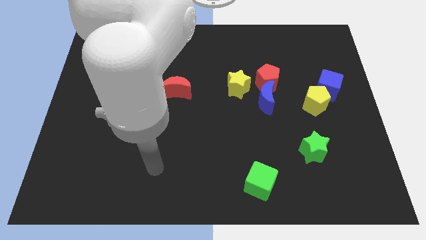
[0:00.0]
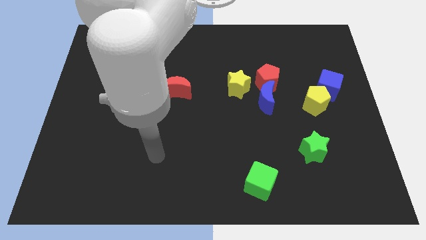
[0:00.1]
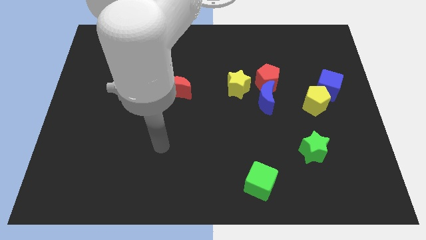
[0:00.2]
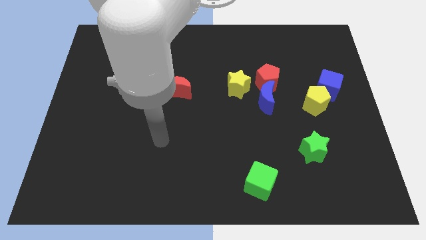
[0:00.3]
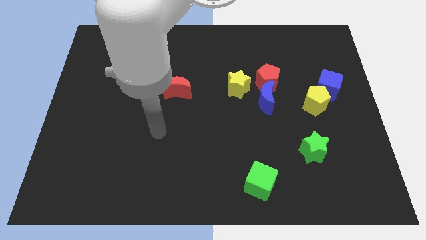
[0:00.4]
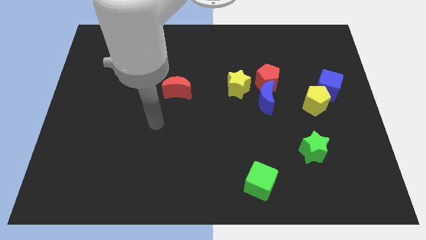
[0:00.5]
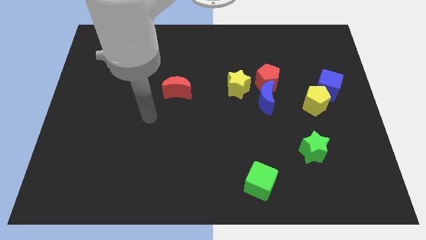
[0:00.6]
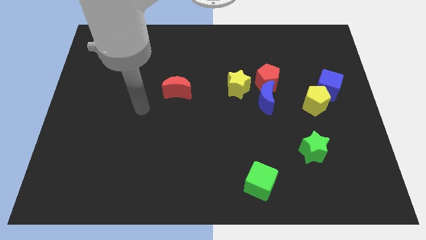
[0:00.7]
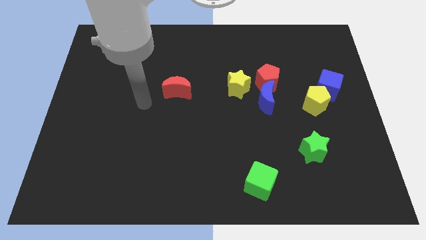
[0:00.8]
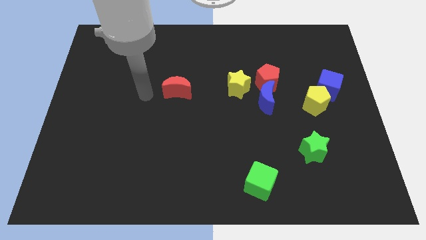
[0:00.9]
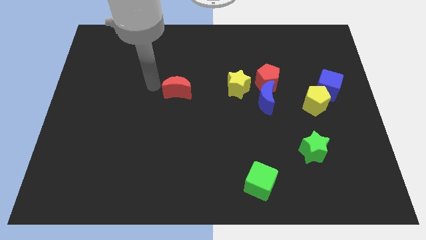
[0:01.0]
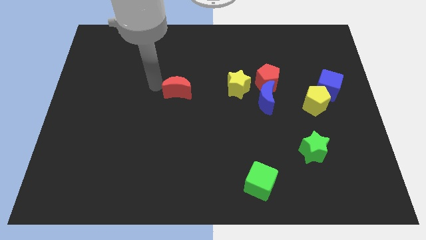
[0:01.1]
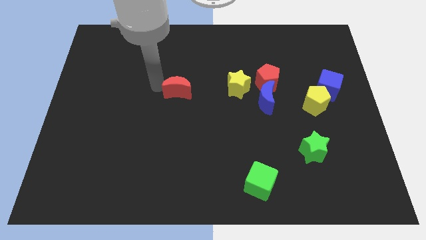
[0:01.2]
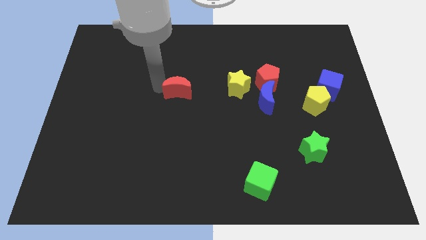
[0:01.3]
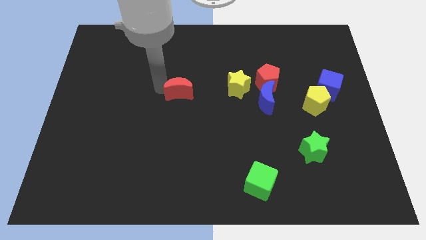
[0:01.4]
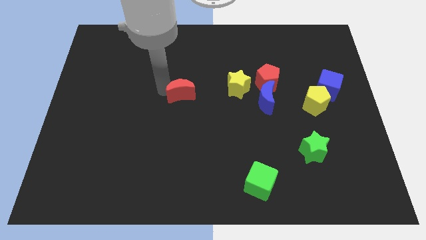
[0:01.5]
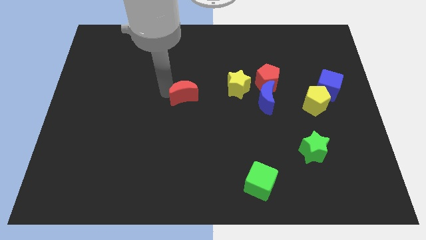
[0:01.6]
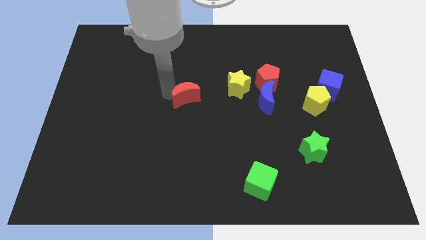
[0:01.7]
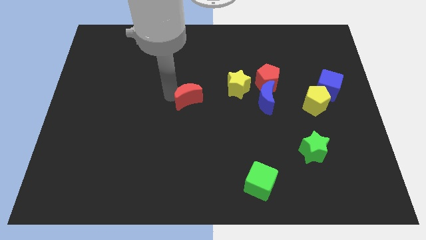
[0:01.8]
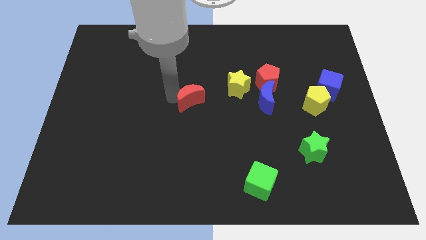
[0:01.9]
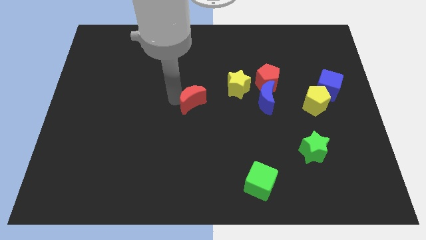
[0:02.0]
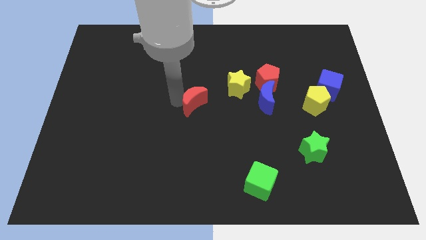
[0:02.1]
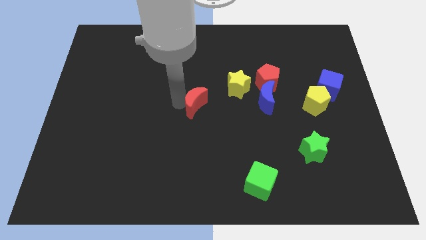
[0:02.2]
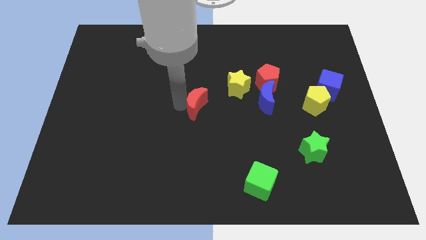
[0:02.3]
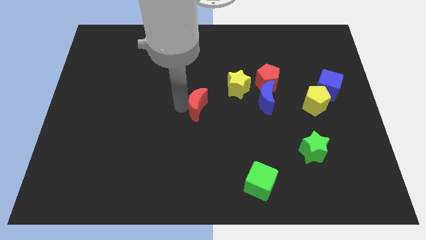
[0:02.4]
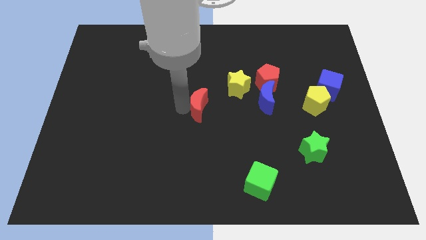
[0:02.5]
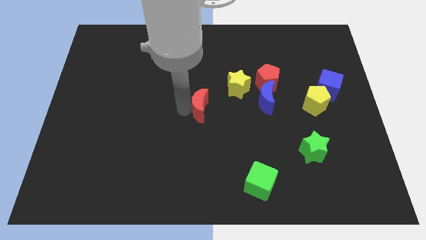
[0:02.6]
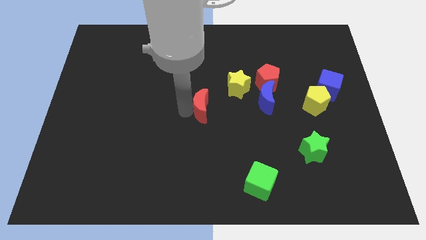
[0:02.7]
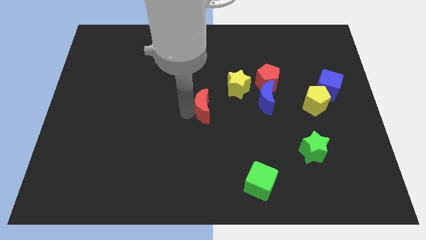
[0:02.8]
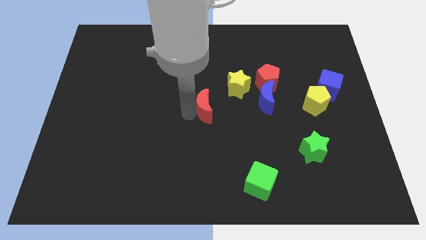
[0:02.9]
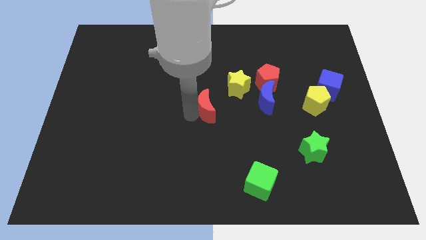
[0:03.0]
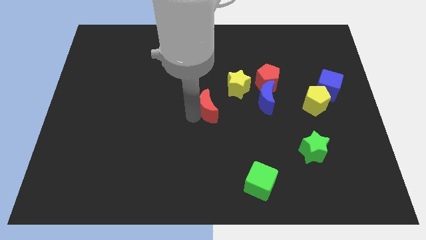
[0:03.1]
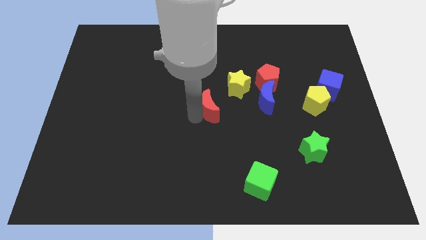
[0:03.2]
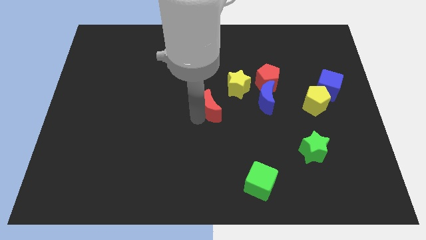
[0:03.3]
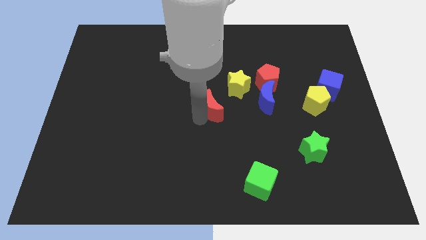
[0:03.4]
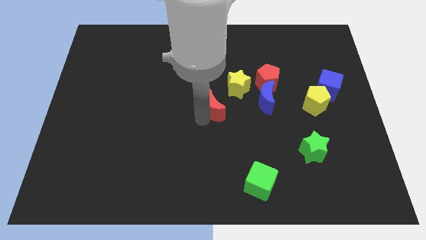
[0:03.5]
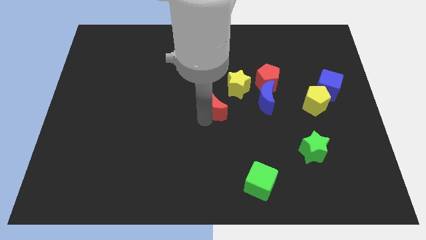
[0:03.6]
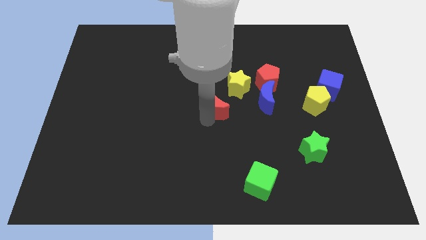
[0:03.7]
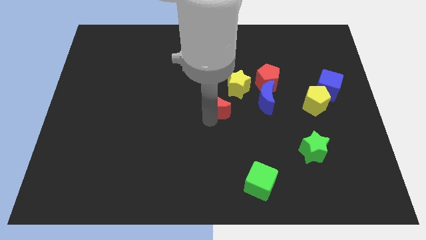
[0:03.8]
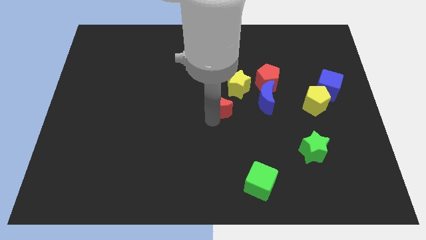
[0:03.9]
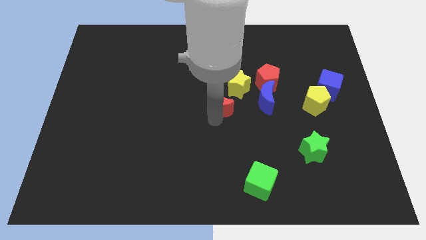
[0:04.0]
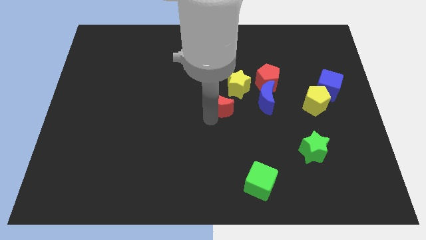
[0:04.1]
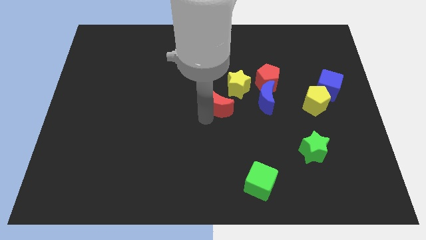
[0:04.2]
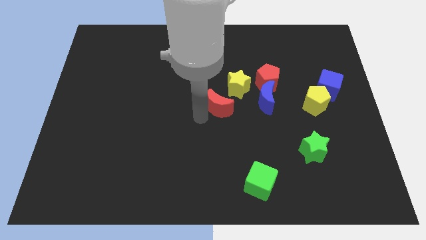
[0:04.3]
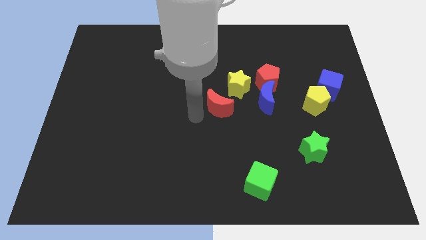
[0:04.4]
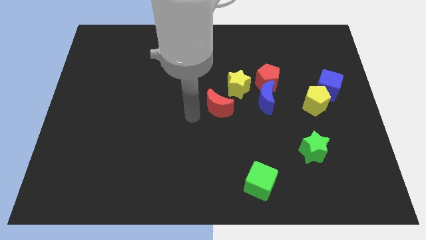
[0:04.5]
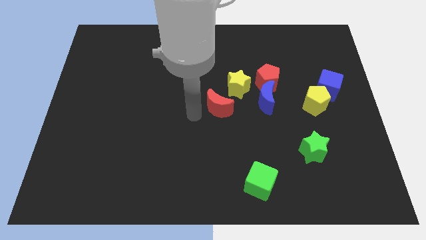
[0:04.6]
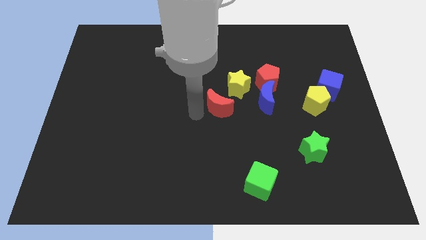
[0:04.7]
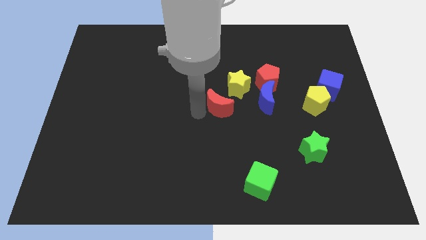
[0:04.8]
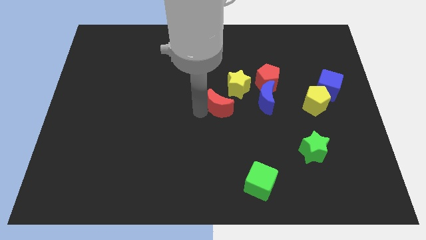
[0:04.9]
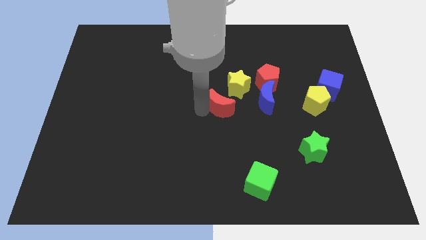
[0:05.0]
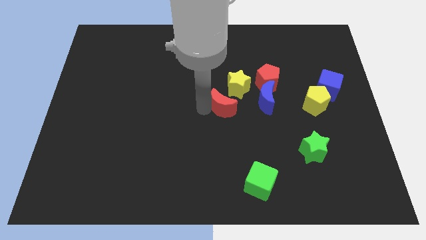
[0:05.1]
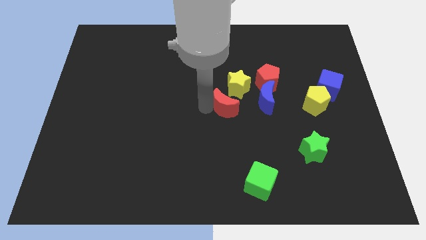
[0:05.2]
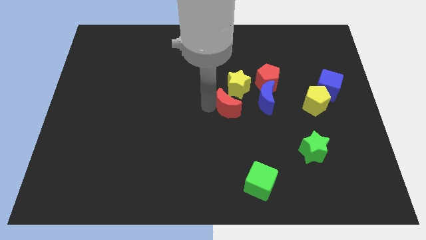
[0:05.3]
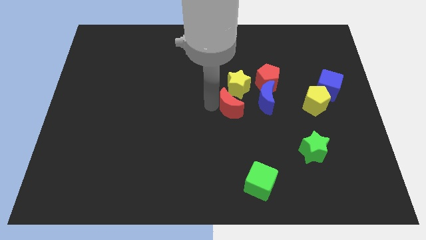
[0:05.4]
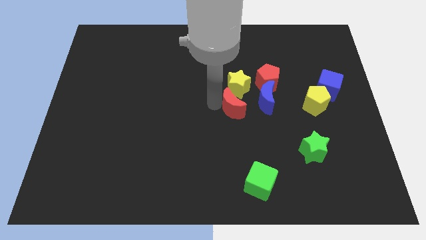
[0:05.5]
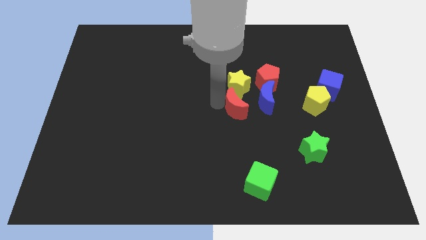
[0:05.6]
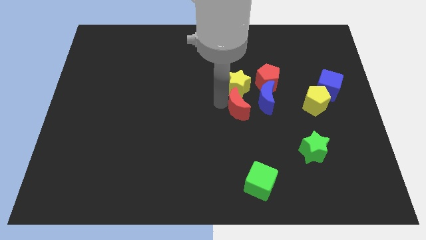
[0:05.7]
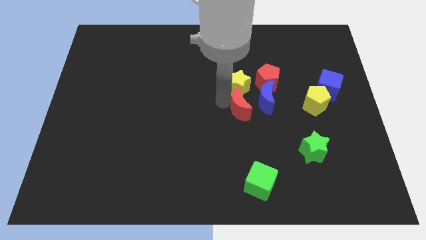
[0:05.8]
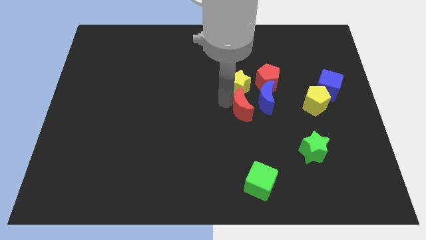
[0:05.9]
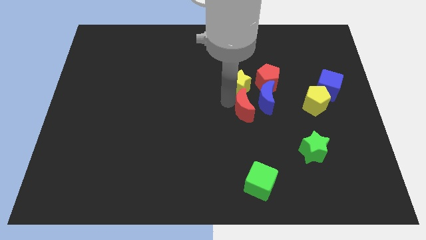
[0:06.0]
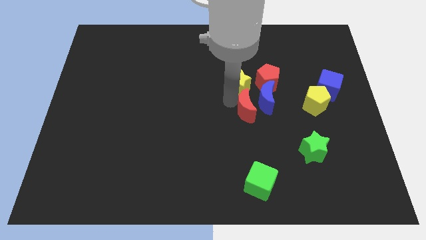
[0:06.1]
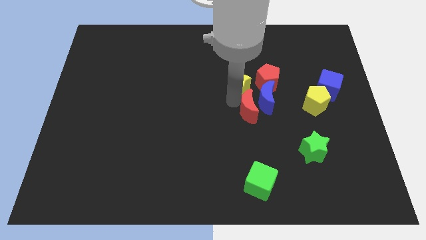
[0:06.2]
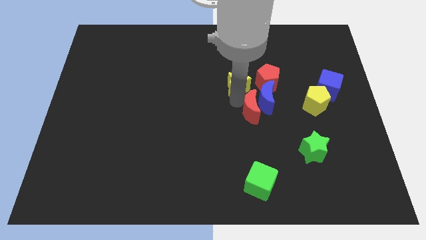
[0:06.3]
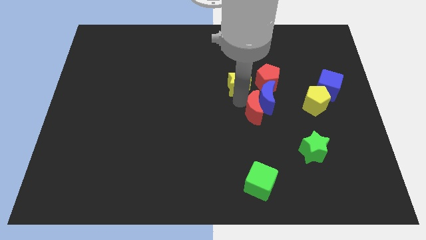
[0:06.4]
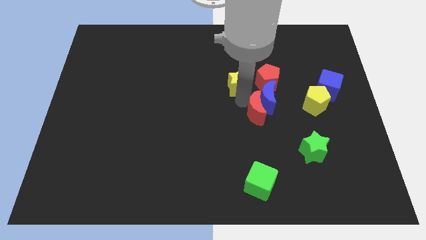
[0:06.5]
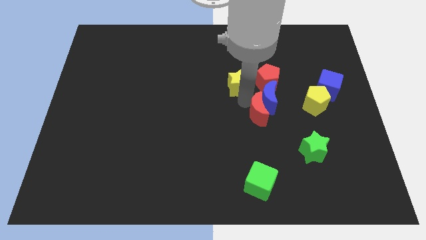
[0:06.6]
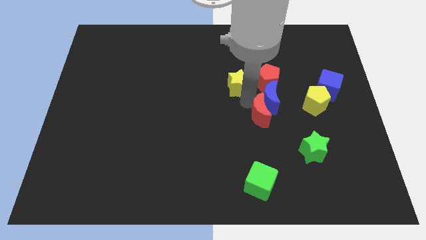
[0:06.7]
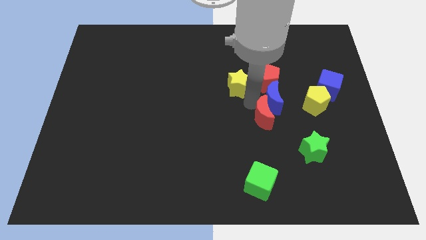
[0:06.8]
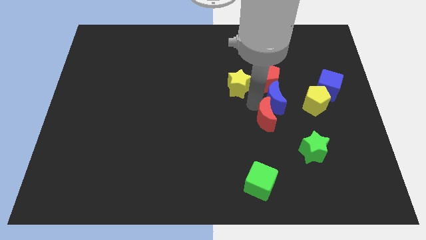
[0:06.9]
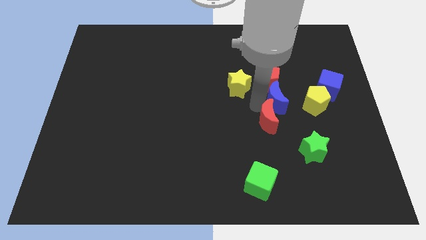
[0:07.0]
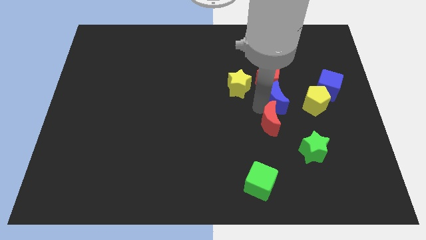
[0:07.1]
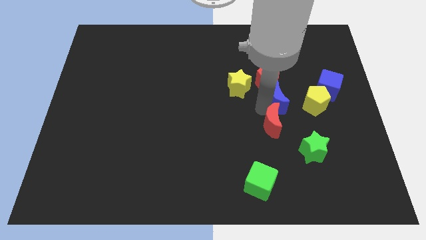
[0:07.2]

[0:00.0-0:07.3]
slide the red moon diagonally down and to the left of the yellow pentagon
